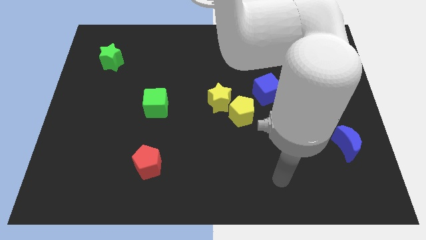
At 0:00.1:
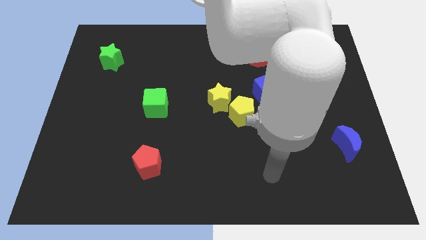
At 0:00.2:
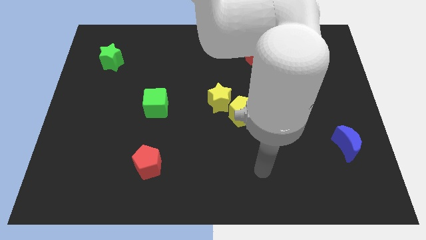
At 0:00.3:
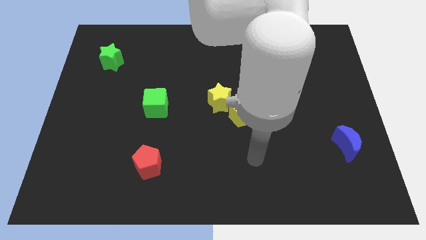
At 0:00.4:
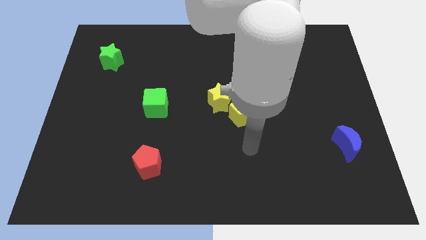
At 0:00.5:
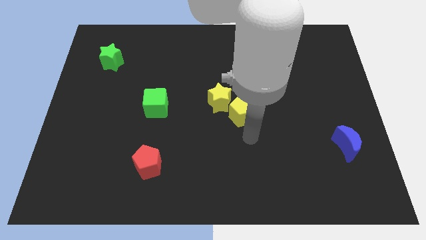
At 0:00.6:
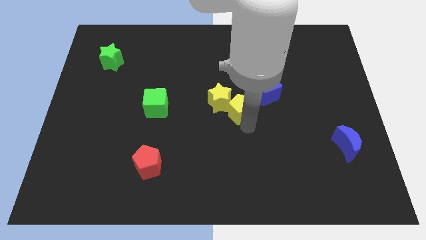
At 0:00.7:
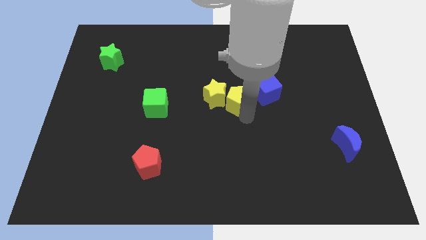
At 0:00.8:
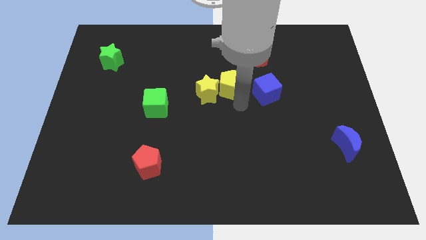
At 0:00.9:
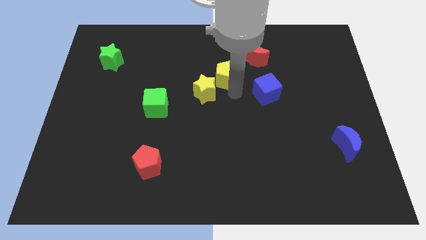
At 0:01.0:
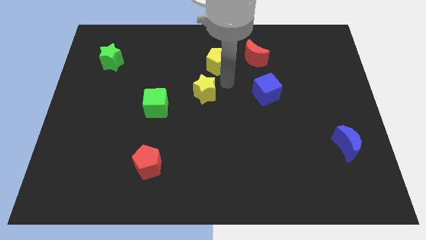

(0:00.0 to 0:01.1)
move the yellow star away from the yellow pentagon

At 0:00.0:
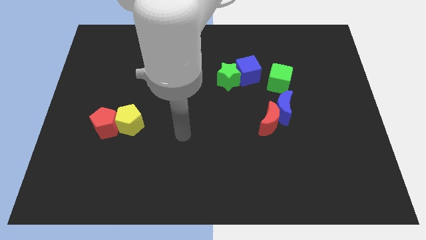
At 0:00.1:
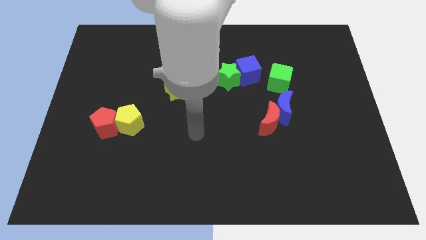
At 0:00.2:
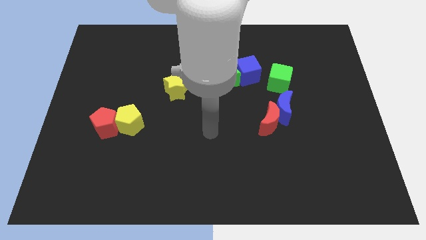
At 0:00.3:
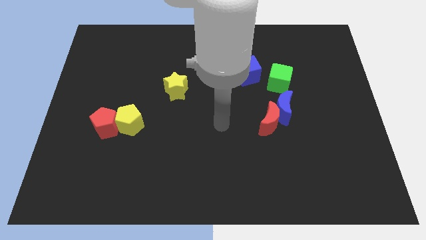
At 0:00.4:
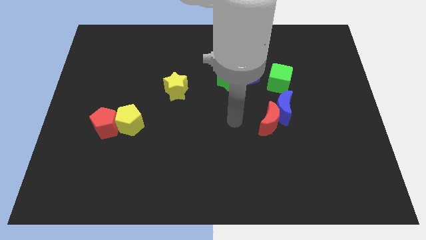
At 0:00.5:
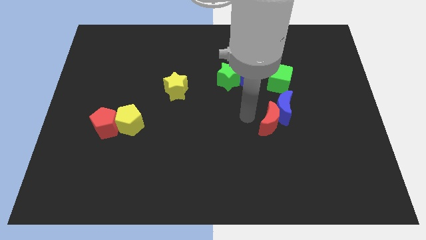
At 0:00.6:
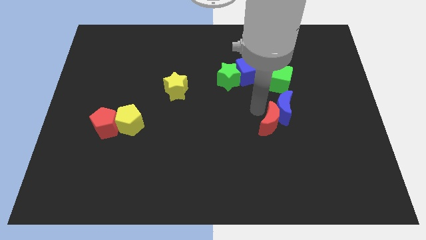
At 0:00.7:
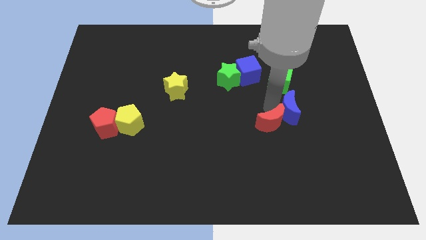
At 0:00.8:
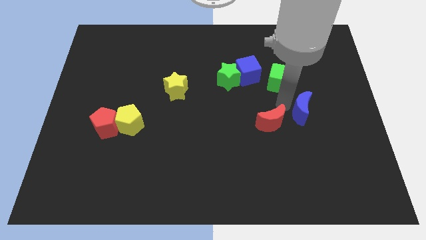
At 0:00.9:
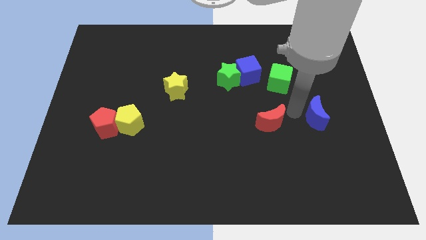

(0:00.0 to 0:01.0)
separate the red moon from the blue moon

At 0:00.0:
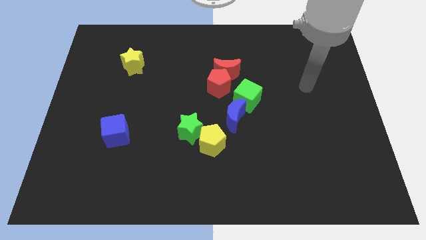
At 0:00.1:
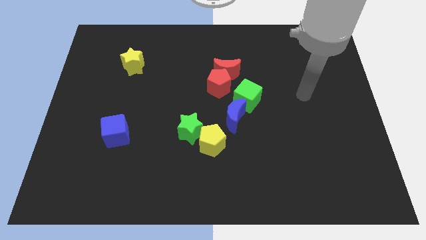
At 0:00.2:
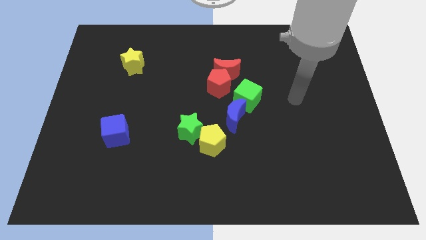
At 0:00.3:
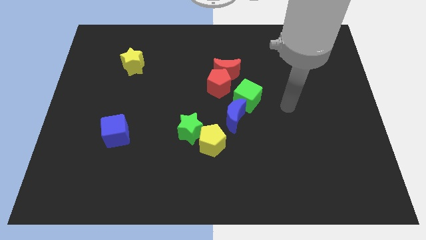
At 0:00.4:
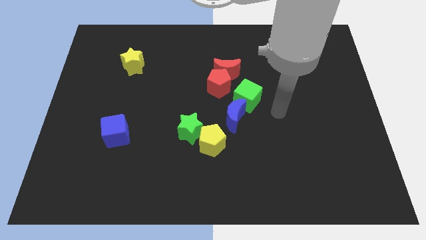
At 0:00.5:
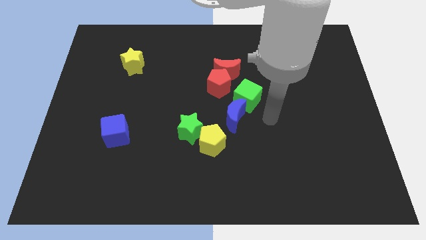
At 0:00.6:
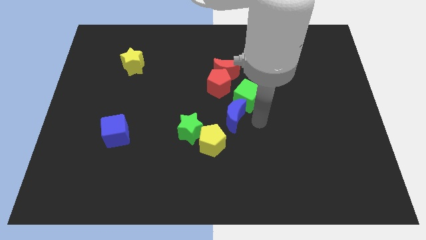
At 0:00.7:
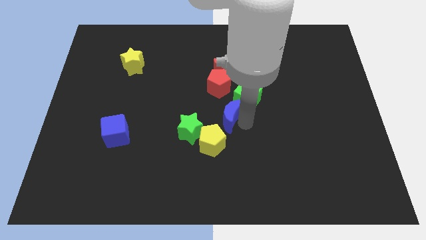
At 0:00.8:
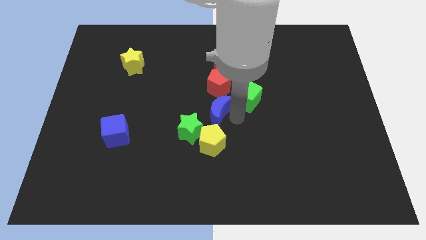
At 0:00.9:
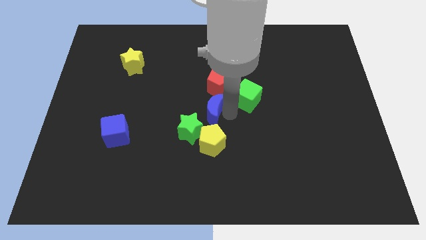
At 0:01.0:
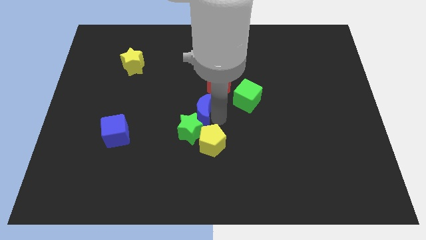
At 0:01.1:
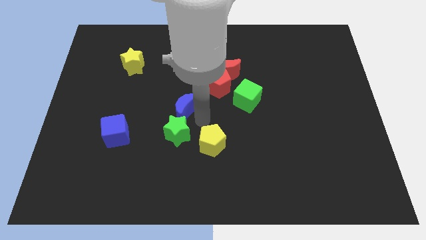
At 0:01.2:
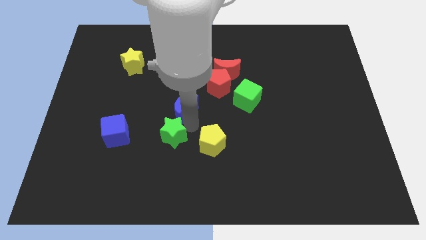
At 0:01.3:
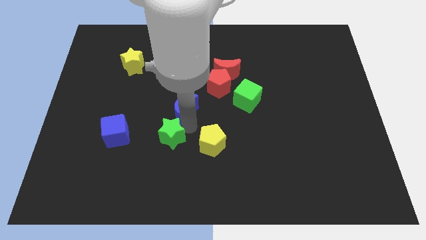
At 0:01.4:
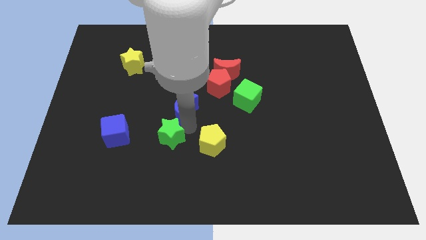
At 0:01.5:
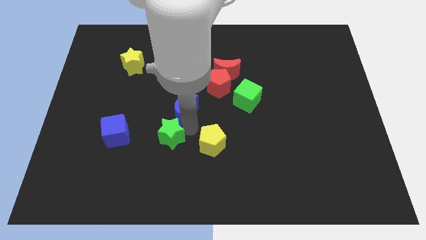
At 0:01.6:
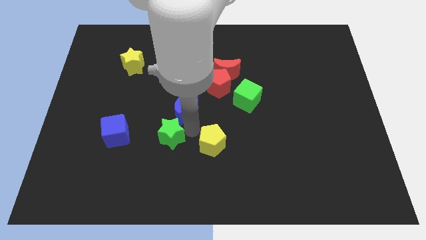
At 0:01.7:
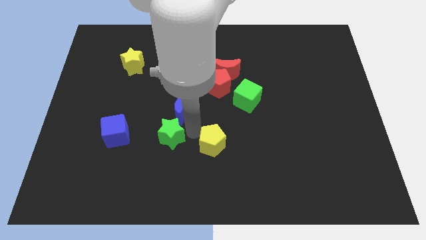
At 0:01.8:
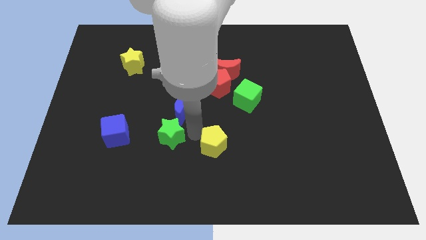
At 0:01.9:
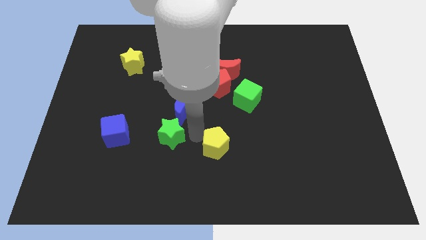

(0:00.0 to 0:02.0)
pull the yellow pentagon apart from the green star and blue moon

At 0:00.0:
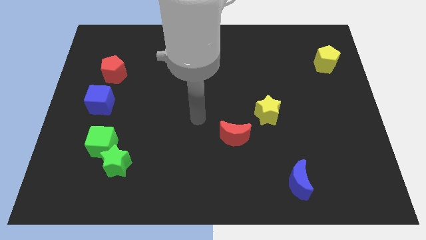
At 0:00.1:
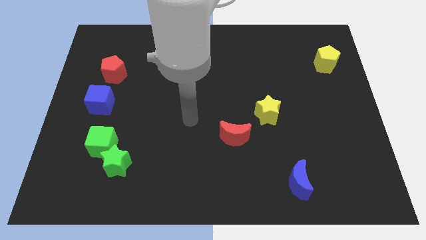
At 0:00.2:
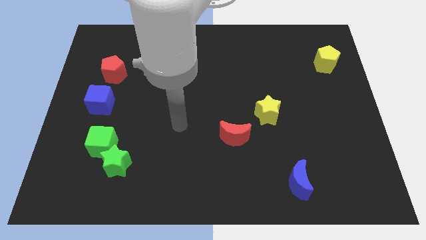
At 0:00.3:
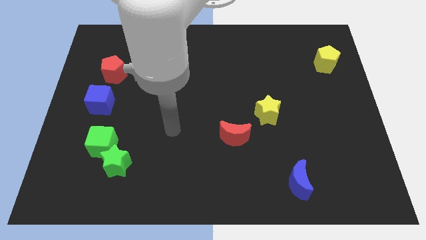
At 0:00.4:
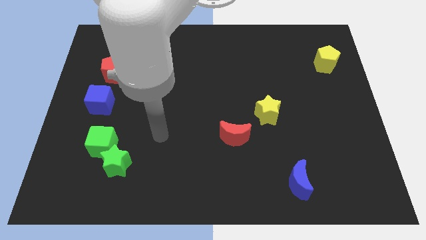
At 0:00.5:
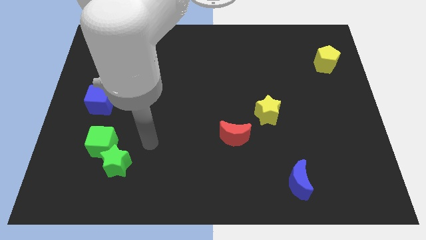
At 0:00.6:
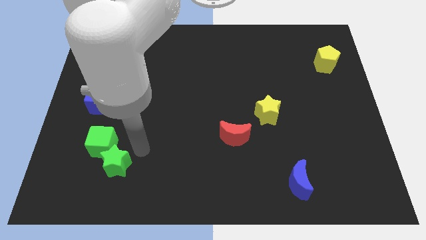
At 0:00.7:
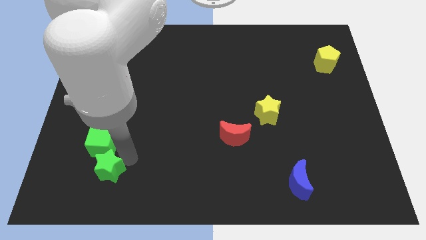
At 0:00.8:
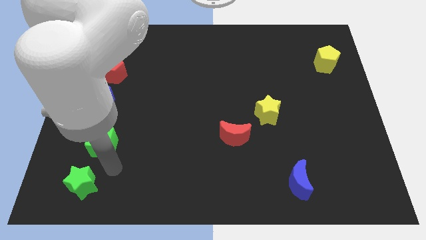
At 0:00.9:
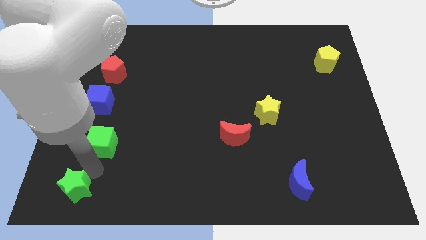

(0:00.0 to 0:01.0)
pull the green cube apart from the green star

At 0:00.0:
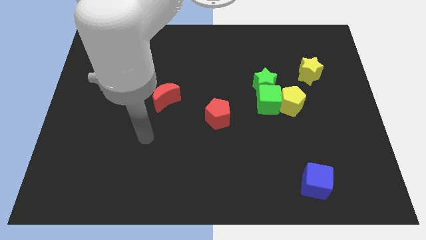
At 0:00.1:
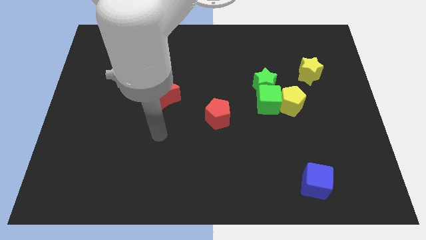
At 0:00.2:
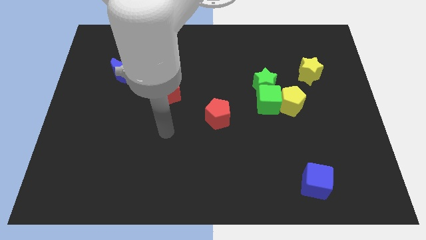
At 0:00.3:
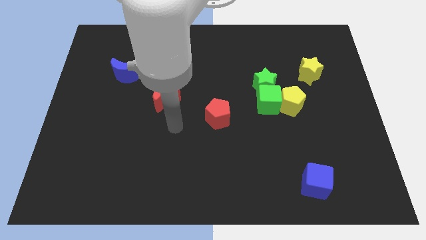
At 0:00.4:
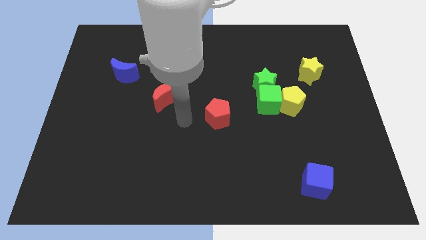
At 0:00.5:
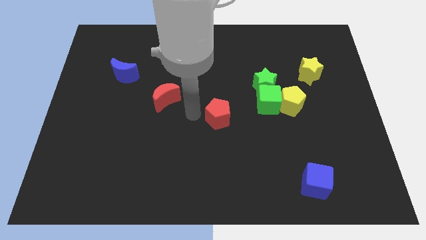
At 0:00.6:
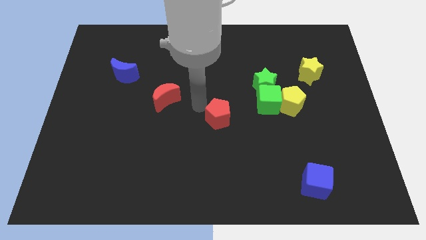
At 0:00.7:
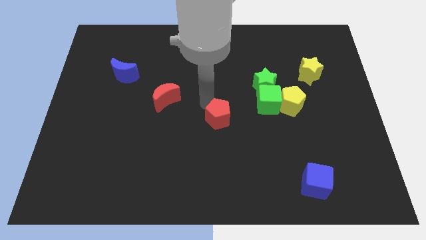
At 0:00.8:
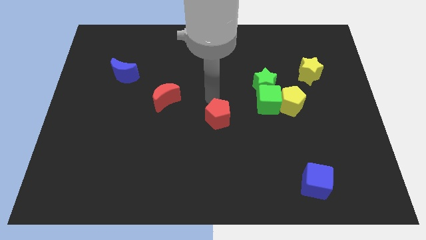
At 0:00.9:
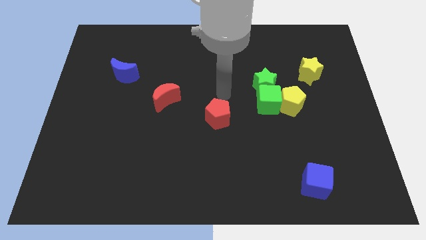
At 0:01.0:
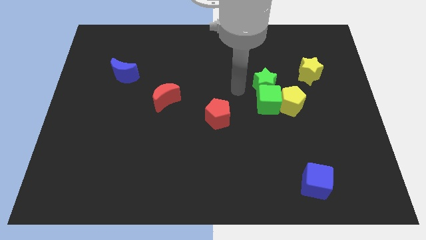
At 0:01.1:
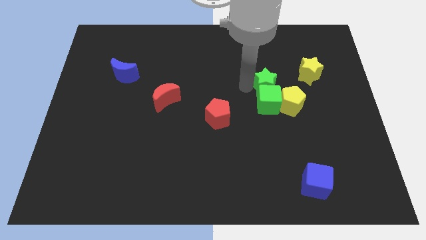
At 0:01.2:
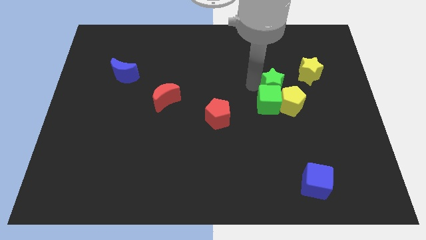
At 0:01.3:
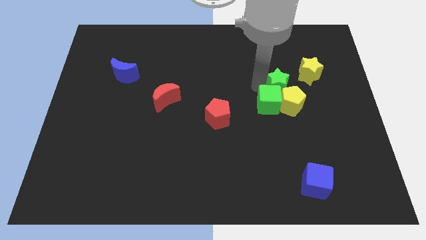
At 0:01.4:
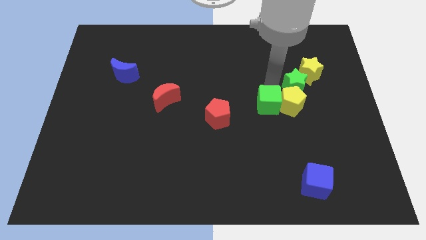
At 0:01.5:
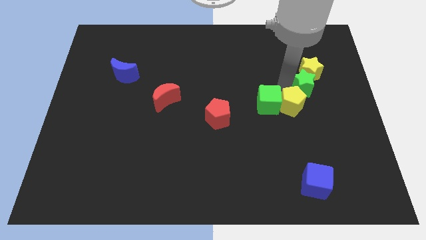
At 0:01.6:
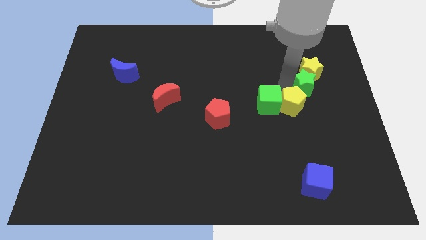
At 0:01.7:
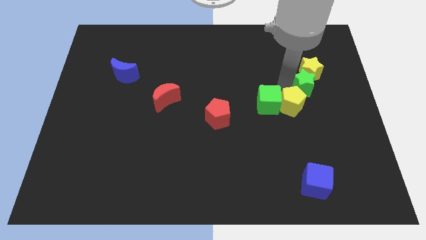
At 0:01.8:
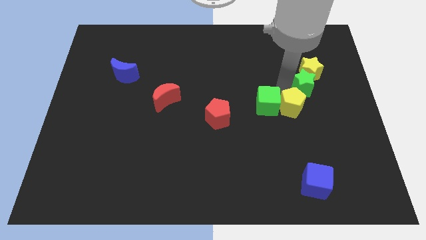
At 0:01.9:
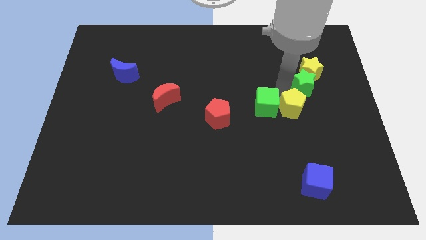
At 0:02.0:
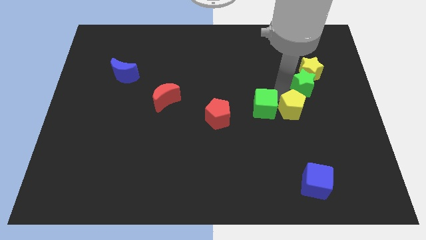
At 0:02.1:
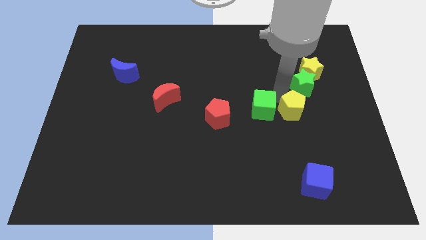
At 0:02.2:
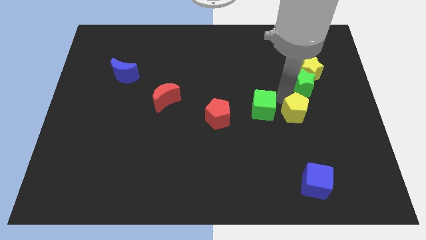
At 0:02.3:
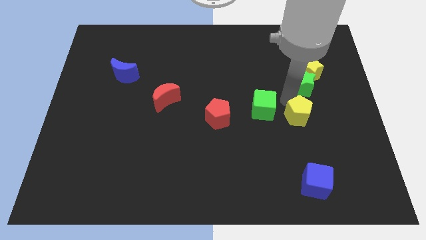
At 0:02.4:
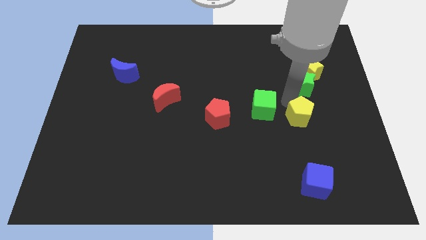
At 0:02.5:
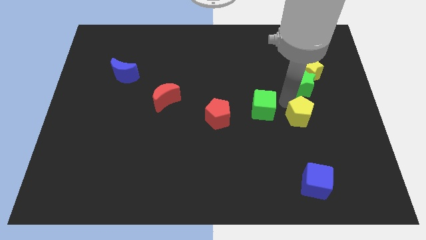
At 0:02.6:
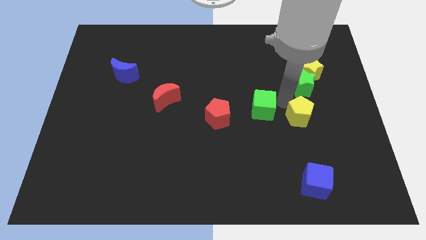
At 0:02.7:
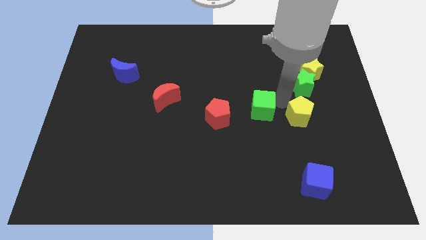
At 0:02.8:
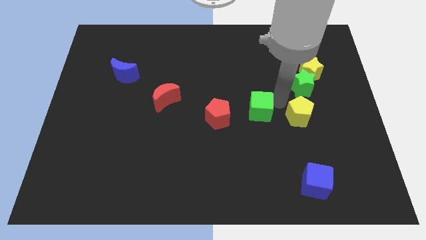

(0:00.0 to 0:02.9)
pull the green cube apart from the green star and yellow pentagon

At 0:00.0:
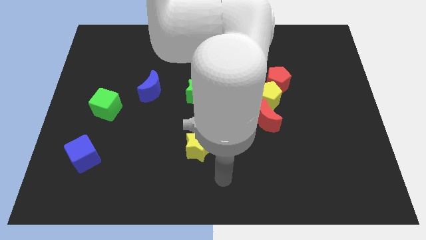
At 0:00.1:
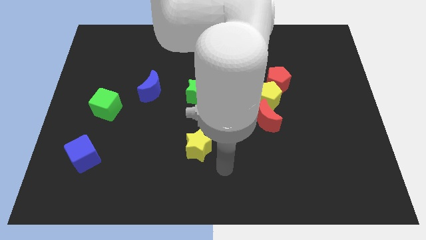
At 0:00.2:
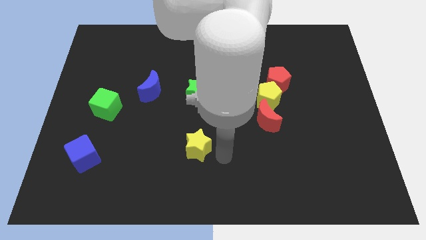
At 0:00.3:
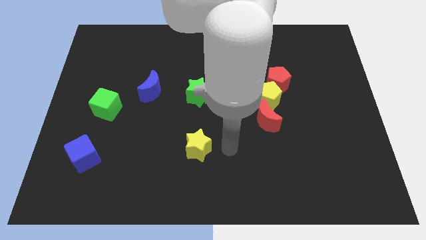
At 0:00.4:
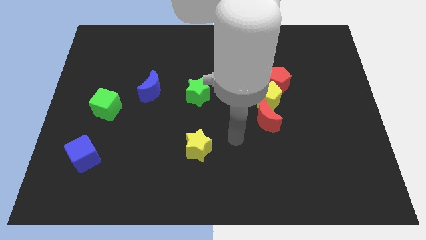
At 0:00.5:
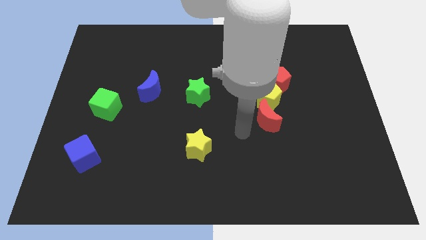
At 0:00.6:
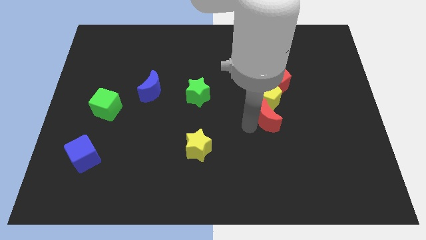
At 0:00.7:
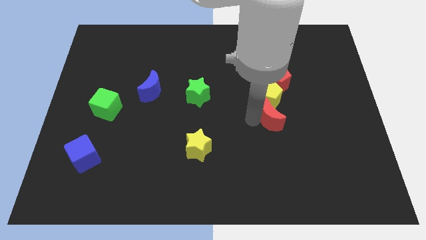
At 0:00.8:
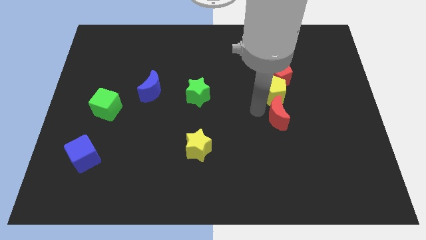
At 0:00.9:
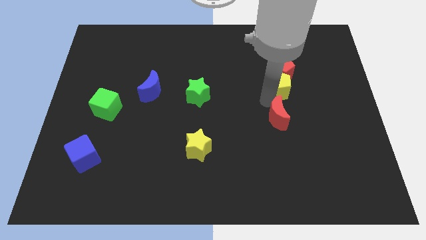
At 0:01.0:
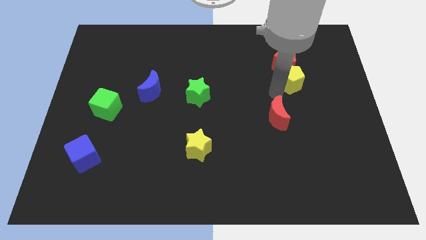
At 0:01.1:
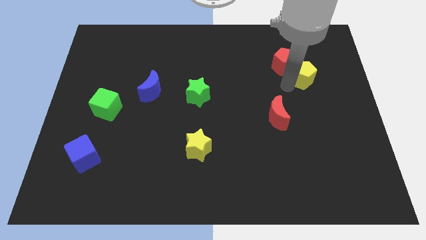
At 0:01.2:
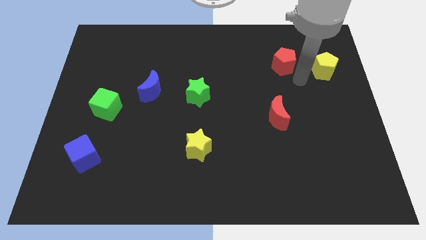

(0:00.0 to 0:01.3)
move the red pentagon away from the yellow pentagon
